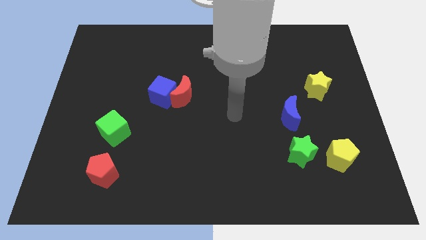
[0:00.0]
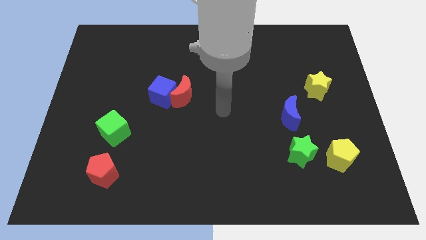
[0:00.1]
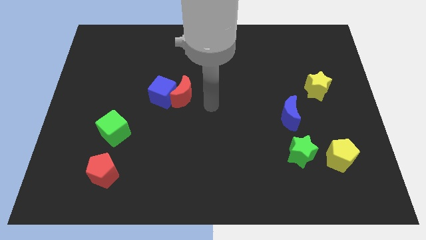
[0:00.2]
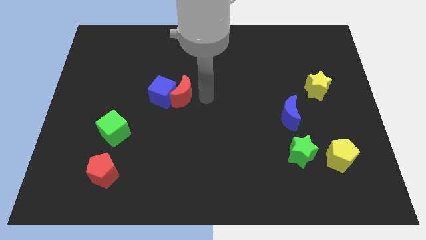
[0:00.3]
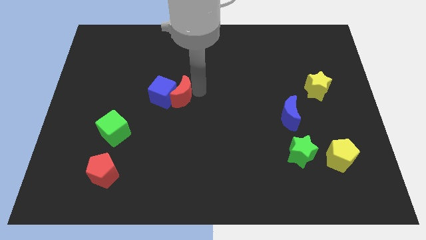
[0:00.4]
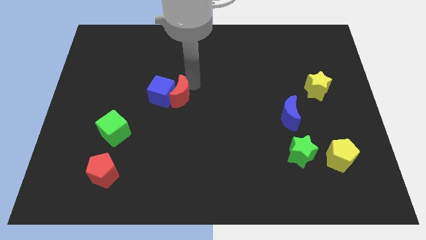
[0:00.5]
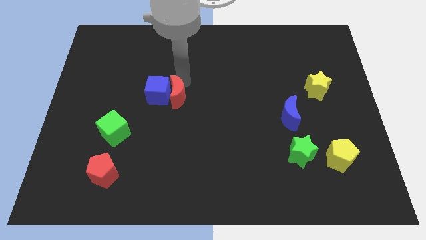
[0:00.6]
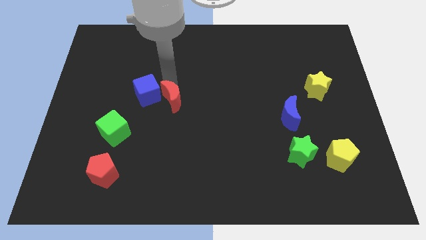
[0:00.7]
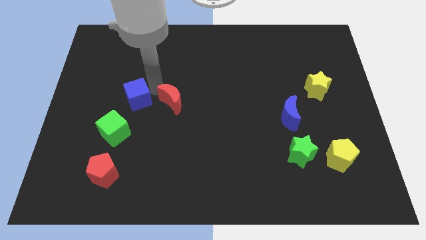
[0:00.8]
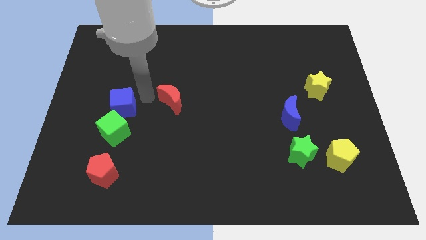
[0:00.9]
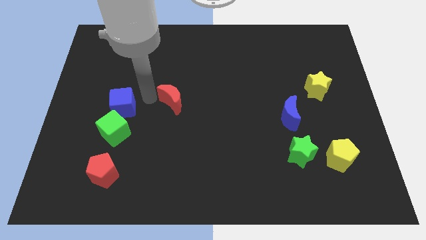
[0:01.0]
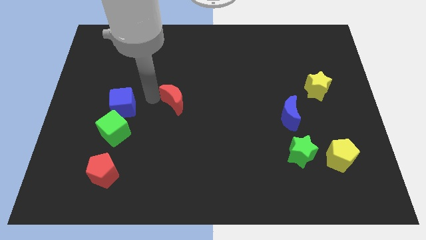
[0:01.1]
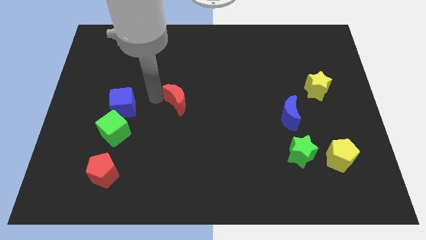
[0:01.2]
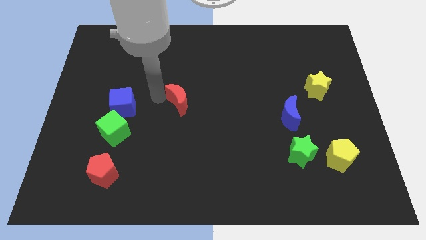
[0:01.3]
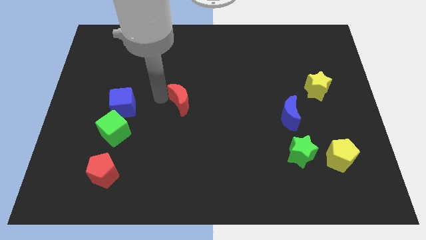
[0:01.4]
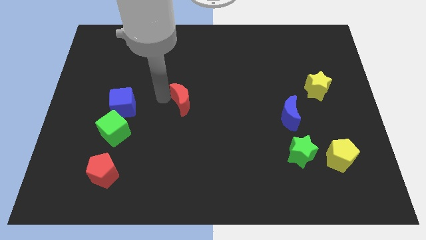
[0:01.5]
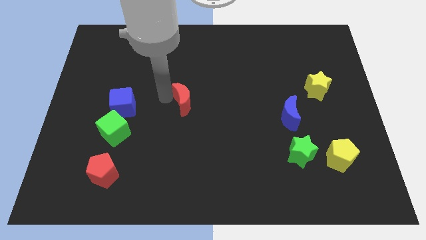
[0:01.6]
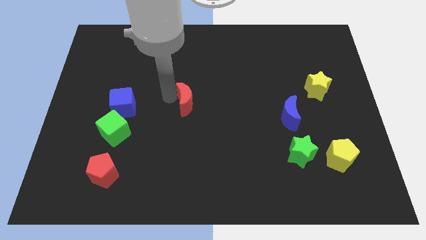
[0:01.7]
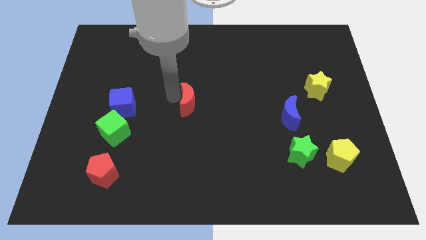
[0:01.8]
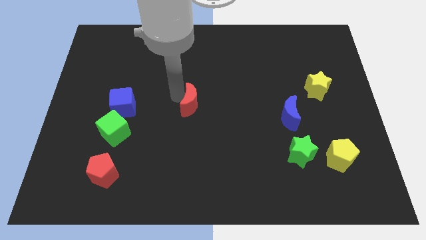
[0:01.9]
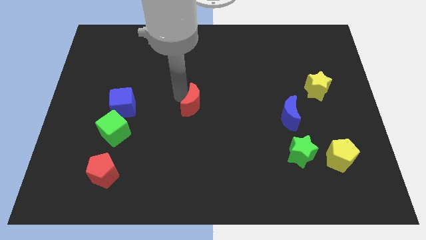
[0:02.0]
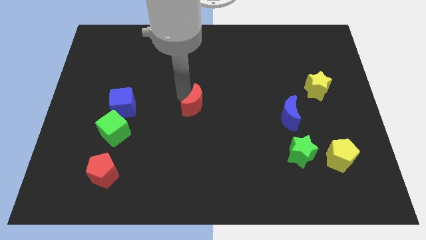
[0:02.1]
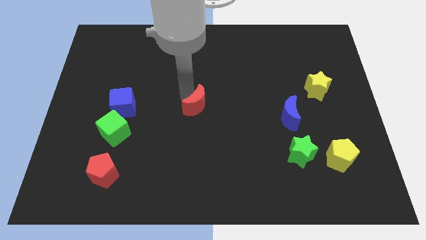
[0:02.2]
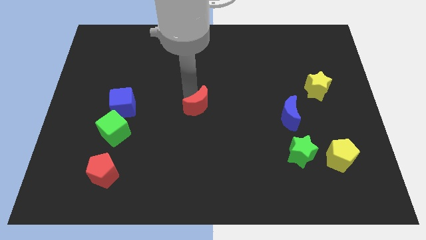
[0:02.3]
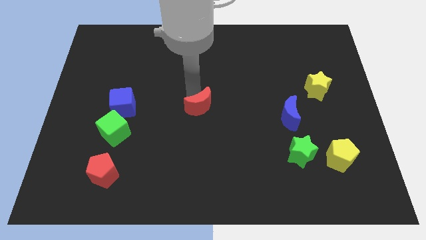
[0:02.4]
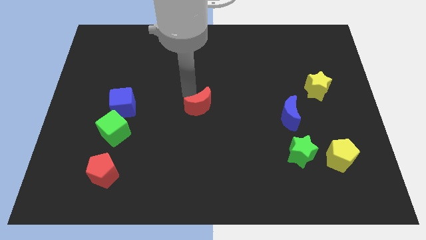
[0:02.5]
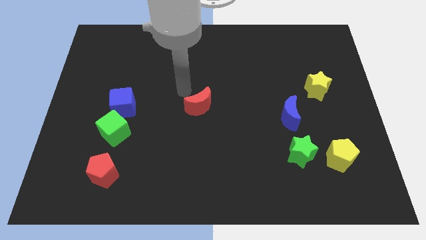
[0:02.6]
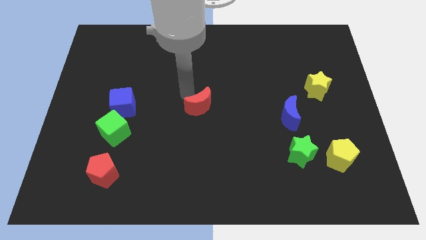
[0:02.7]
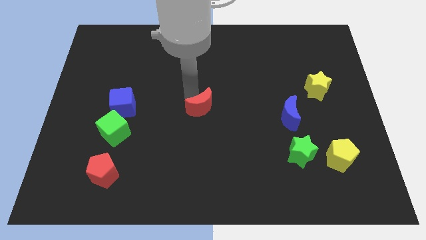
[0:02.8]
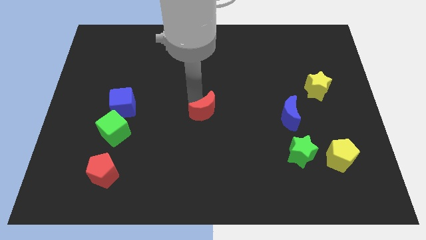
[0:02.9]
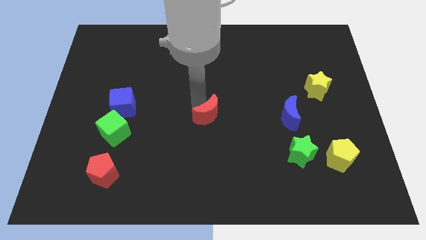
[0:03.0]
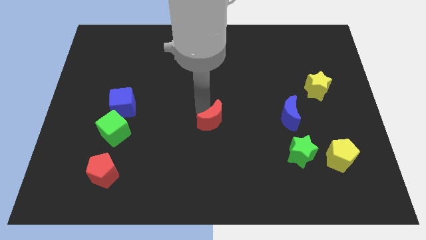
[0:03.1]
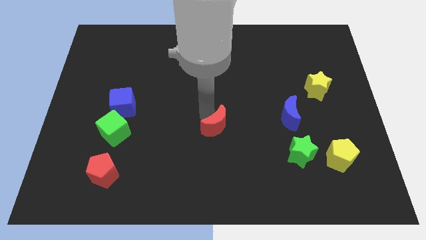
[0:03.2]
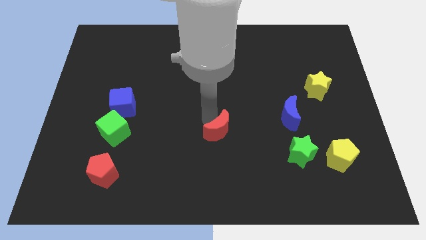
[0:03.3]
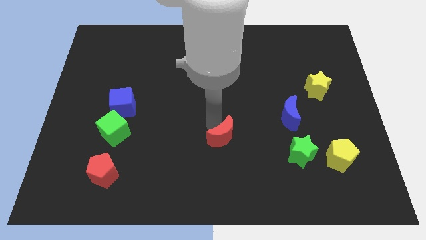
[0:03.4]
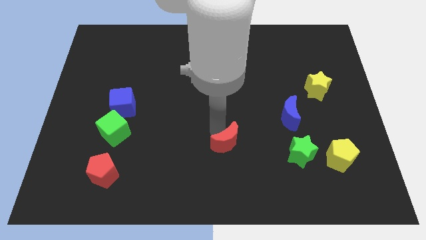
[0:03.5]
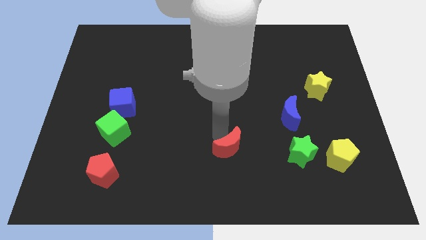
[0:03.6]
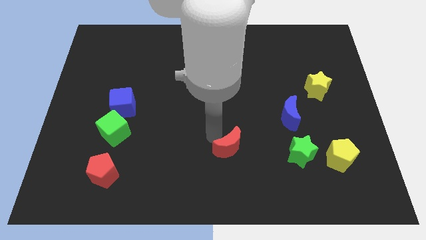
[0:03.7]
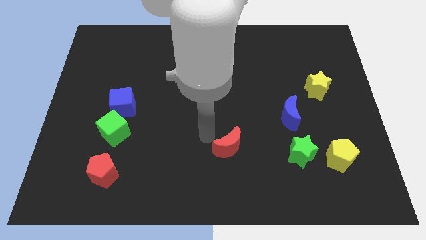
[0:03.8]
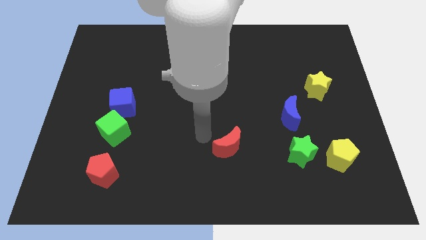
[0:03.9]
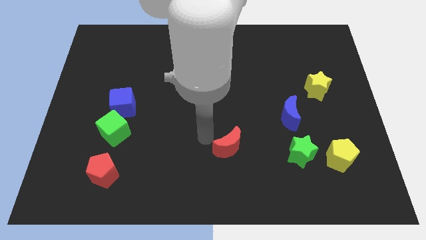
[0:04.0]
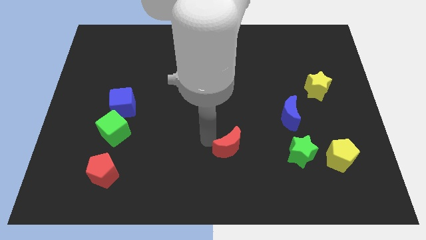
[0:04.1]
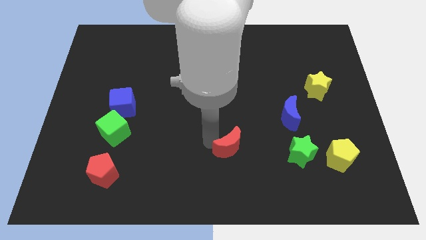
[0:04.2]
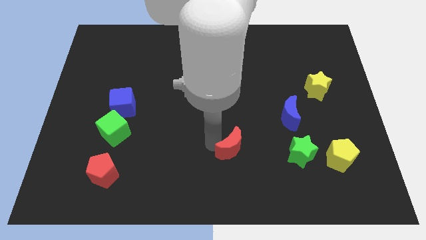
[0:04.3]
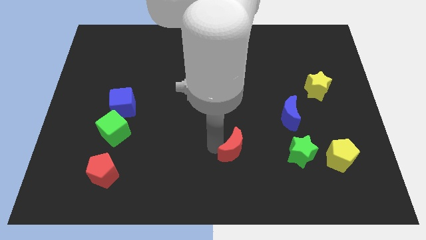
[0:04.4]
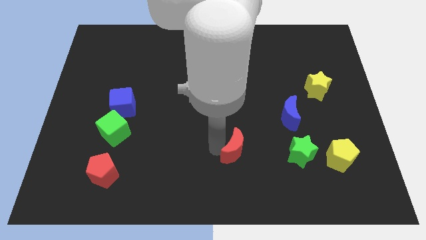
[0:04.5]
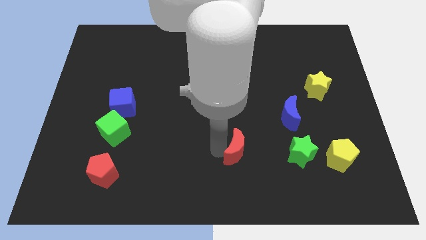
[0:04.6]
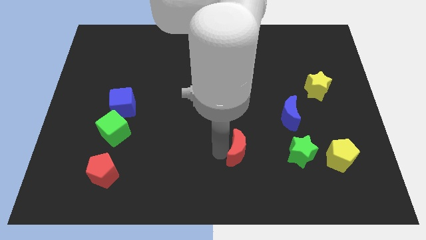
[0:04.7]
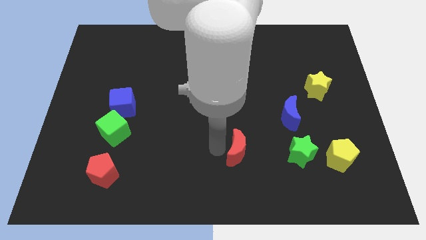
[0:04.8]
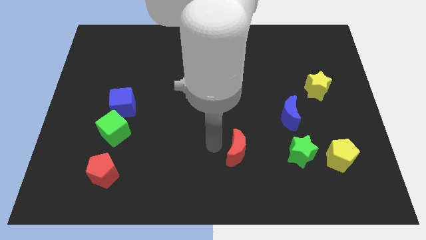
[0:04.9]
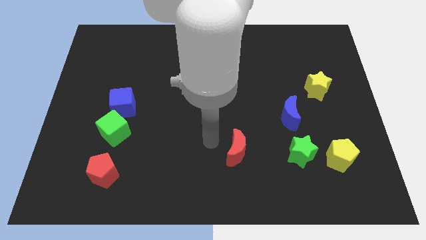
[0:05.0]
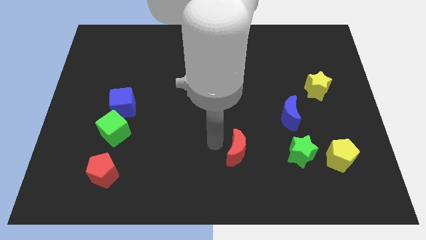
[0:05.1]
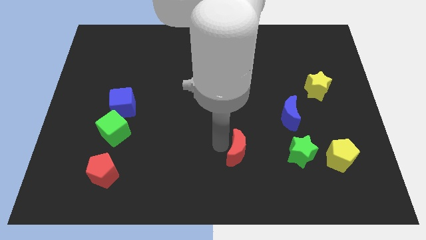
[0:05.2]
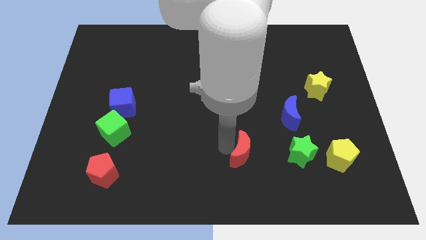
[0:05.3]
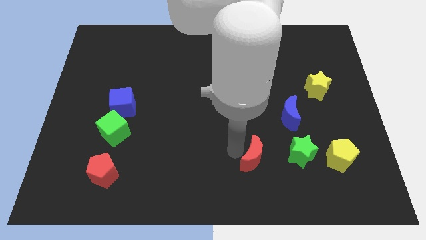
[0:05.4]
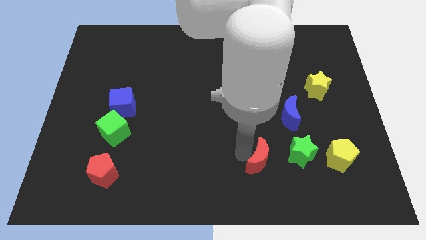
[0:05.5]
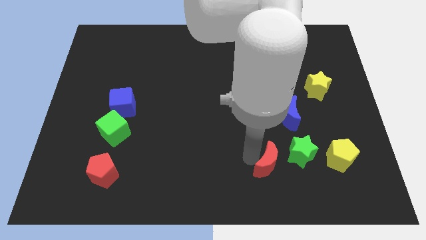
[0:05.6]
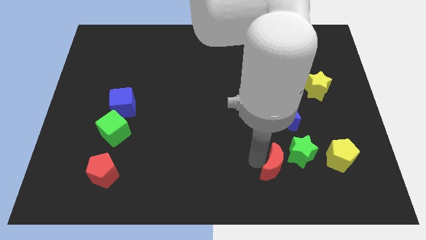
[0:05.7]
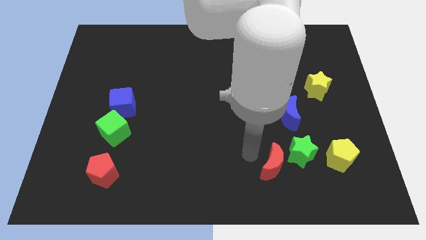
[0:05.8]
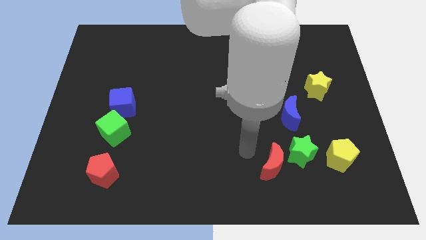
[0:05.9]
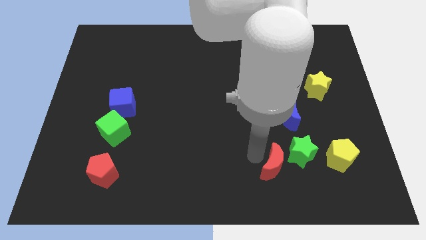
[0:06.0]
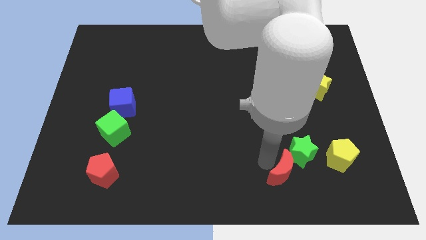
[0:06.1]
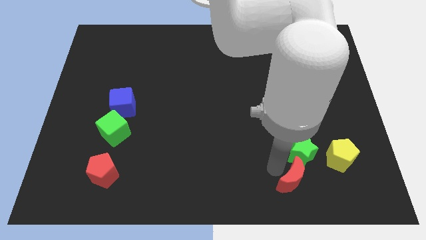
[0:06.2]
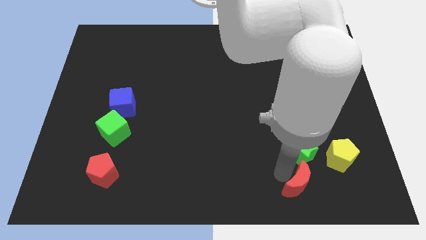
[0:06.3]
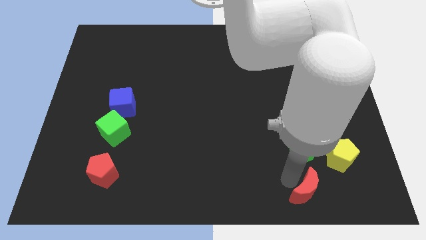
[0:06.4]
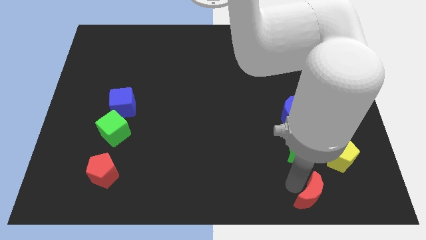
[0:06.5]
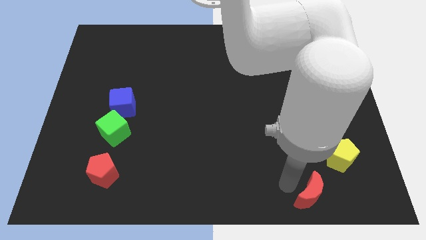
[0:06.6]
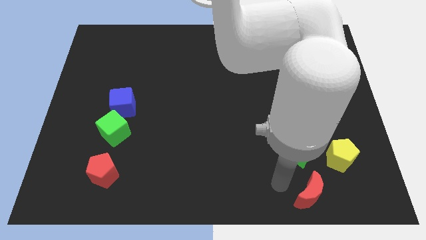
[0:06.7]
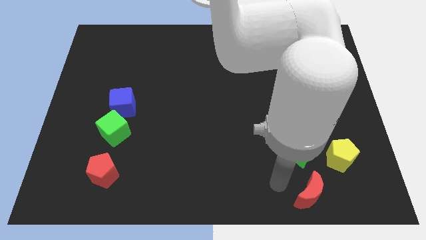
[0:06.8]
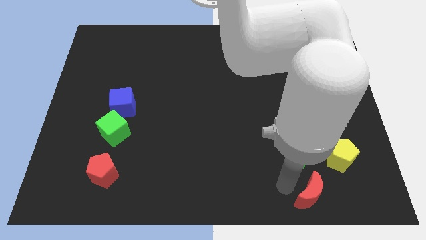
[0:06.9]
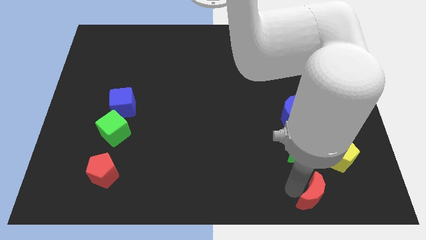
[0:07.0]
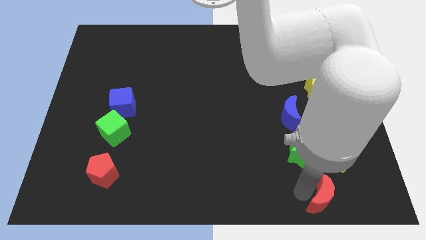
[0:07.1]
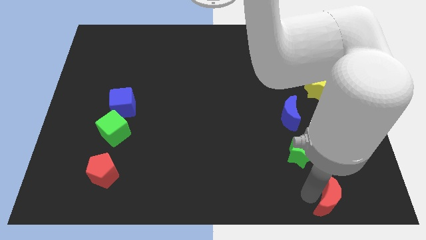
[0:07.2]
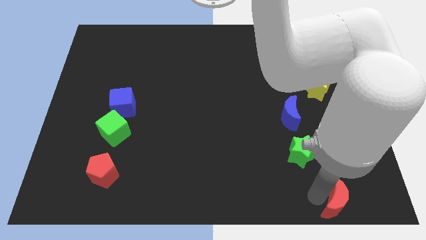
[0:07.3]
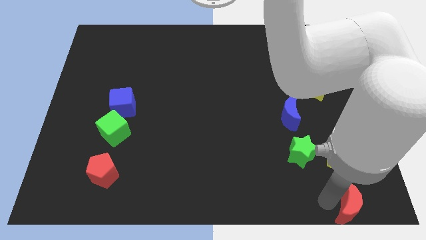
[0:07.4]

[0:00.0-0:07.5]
slide the red moon to the bottom right corner
